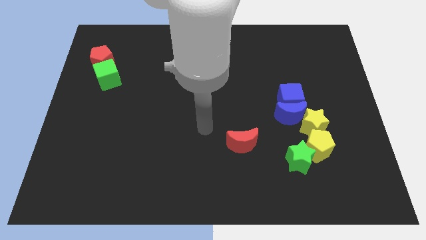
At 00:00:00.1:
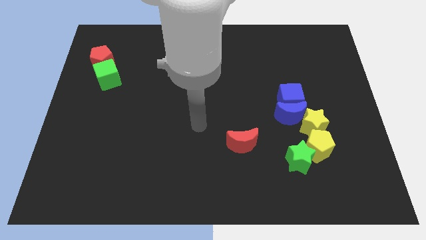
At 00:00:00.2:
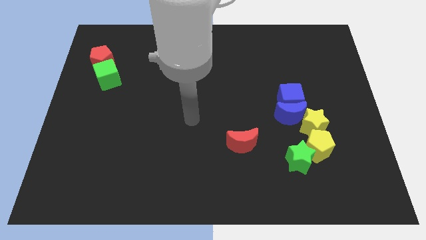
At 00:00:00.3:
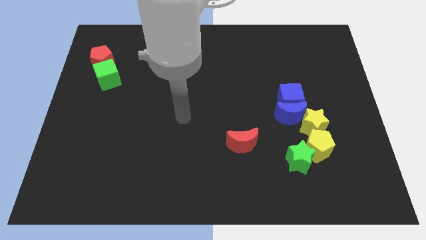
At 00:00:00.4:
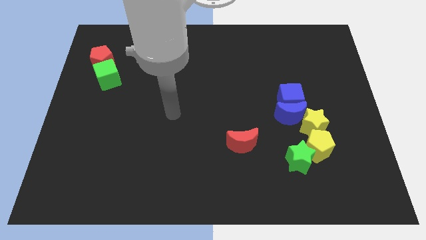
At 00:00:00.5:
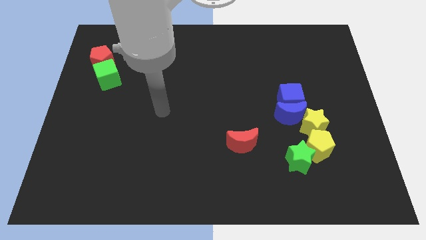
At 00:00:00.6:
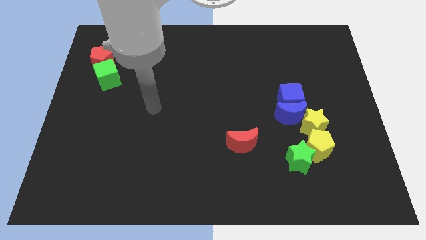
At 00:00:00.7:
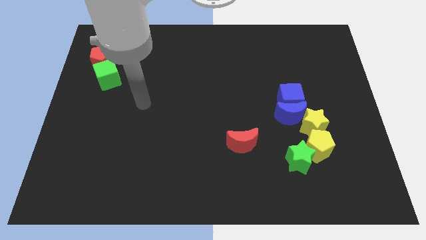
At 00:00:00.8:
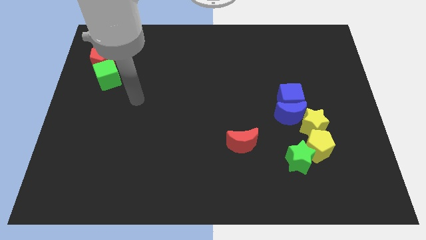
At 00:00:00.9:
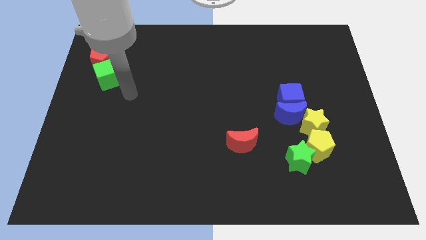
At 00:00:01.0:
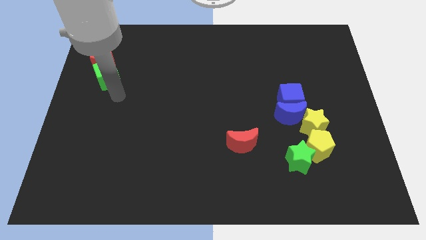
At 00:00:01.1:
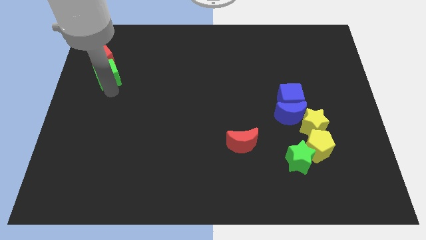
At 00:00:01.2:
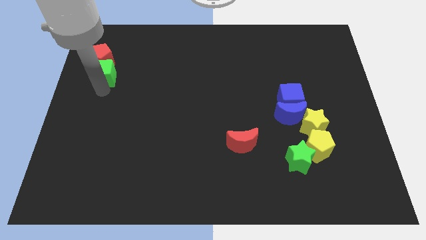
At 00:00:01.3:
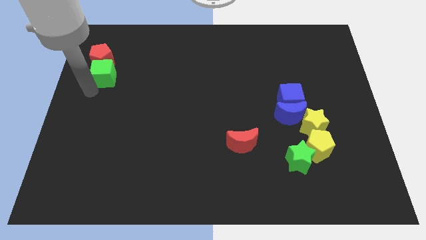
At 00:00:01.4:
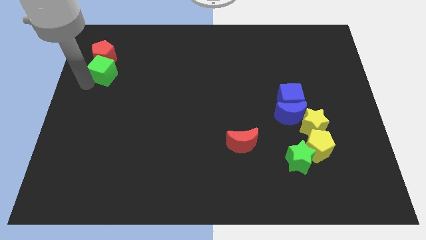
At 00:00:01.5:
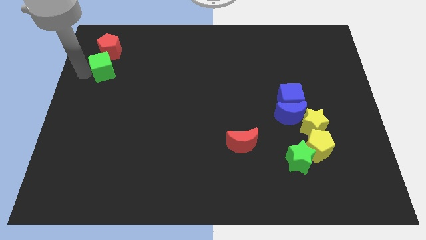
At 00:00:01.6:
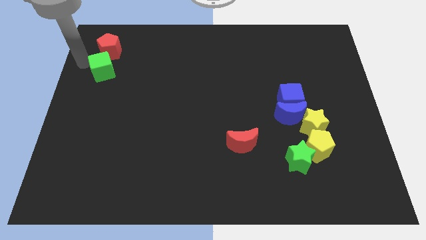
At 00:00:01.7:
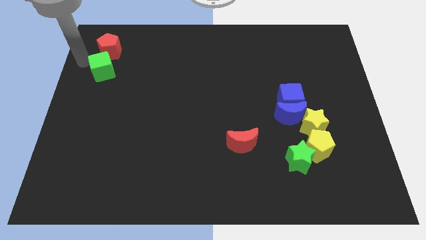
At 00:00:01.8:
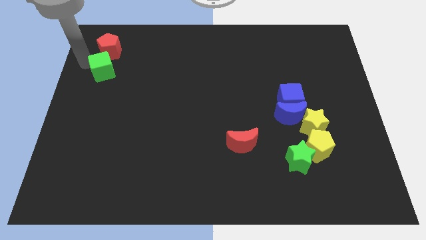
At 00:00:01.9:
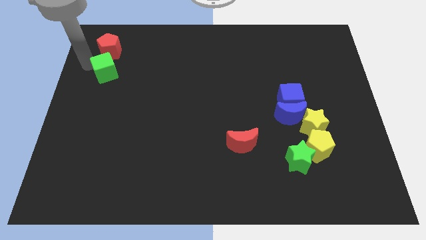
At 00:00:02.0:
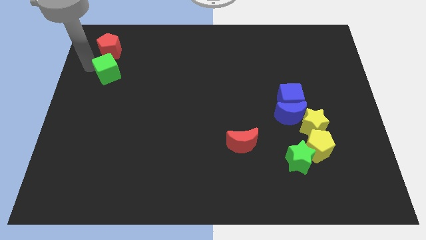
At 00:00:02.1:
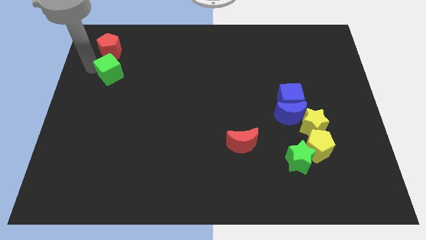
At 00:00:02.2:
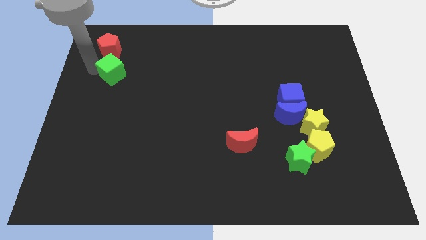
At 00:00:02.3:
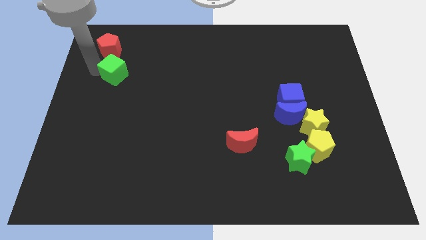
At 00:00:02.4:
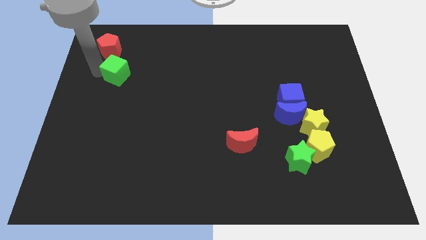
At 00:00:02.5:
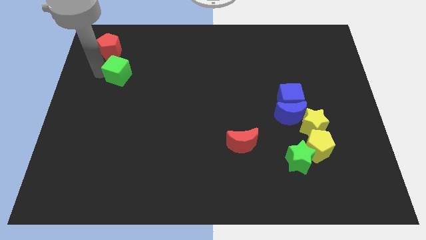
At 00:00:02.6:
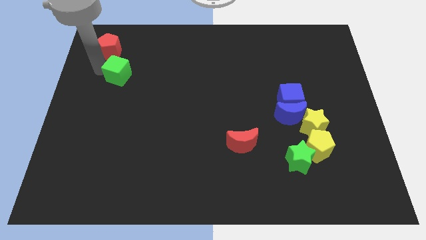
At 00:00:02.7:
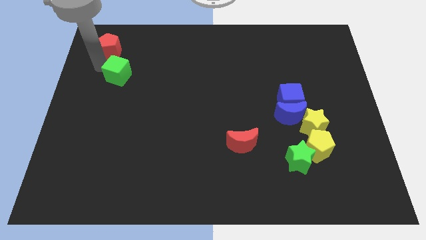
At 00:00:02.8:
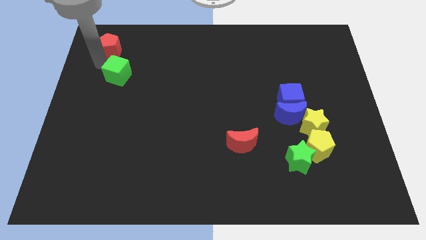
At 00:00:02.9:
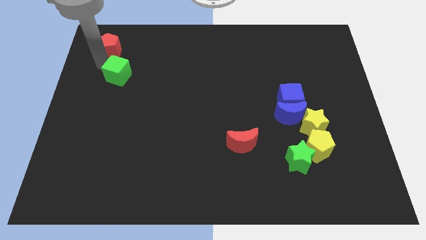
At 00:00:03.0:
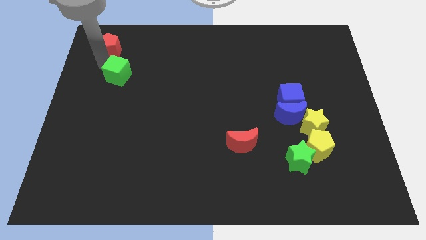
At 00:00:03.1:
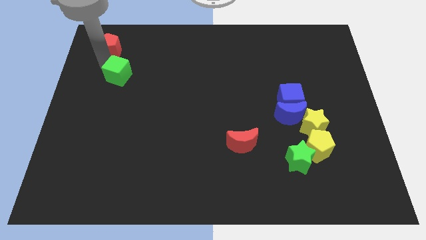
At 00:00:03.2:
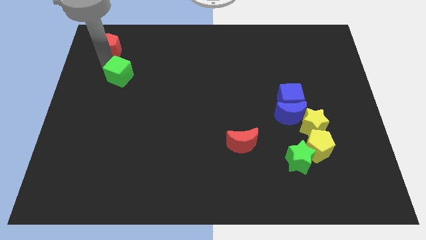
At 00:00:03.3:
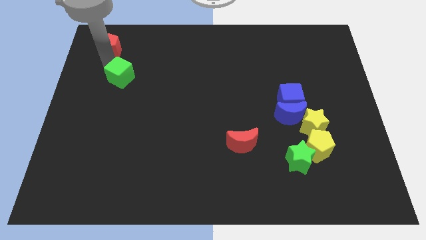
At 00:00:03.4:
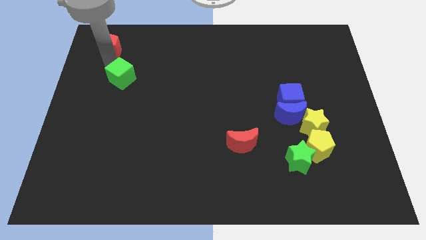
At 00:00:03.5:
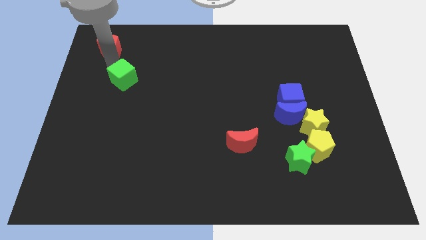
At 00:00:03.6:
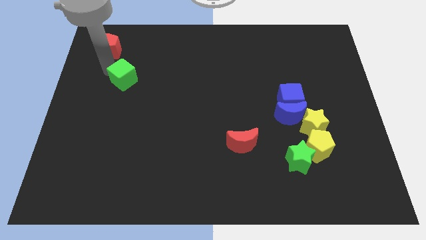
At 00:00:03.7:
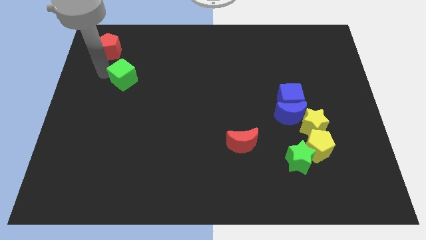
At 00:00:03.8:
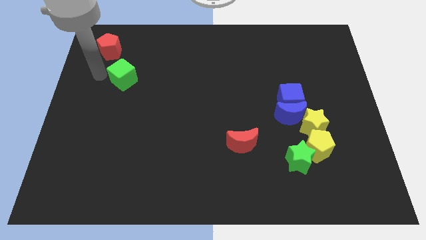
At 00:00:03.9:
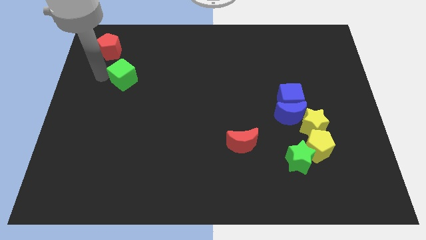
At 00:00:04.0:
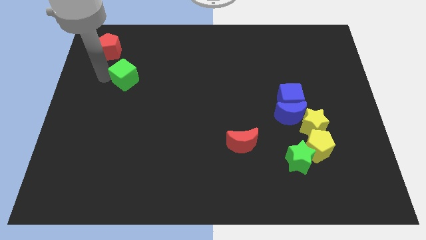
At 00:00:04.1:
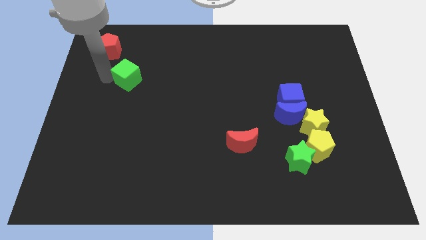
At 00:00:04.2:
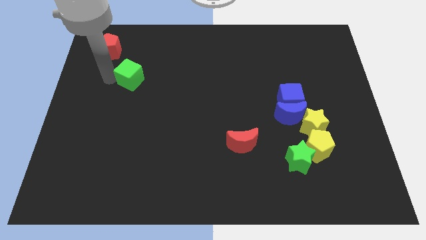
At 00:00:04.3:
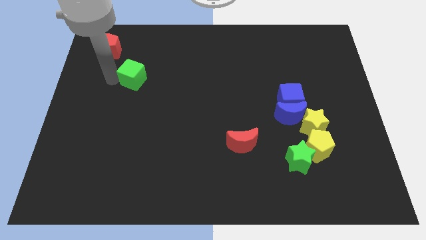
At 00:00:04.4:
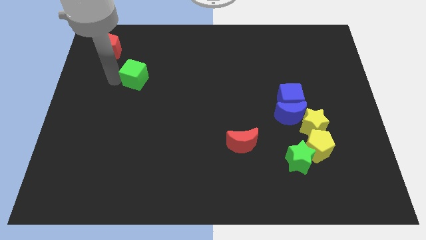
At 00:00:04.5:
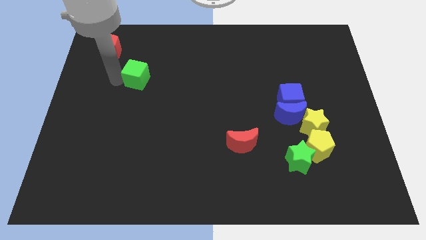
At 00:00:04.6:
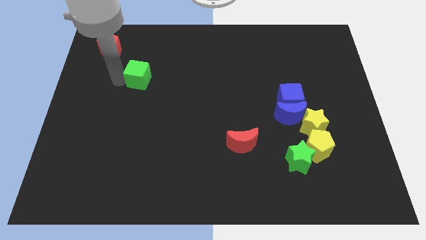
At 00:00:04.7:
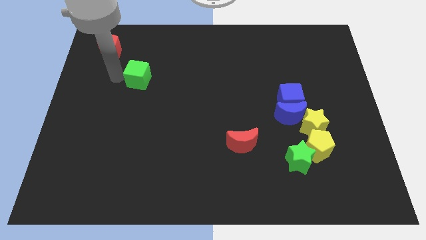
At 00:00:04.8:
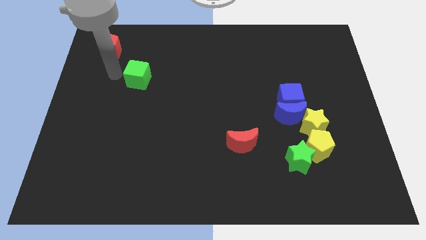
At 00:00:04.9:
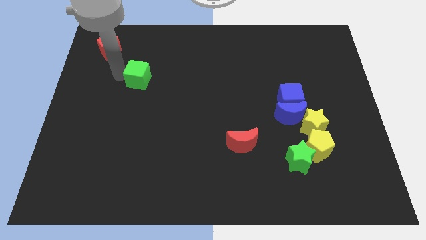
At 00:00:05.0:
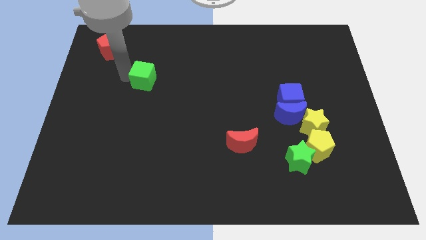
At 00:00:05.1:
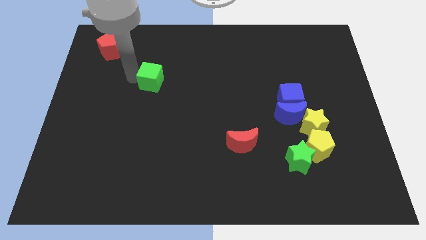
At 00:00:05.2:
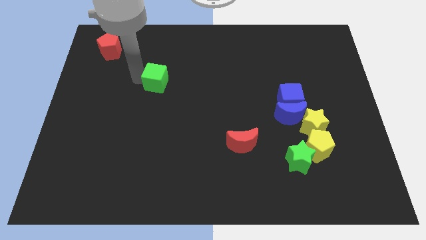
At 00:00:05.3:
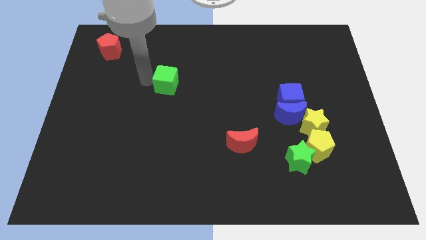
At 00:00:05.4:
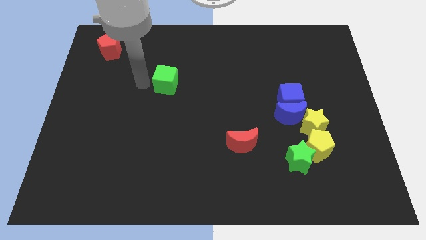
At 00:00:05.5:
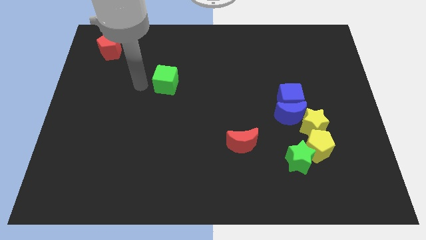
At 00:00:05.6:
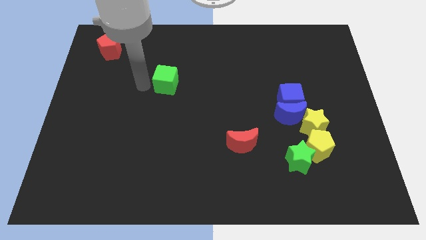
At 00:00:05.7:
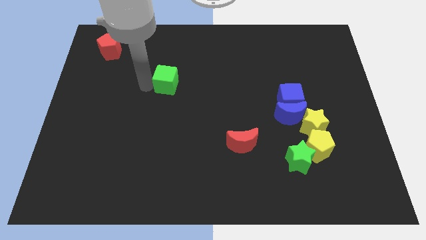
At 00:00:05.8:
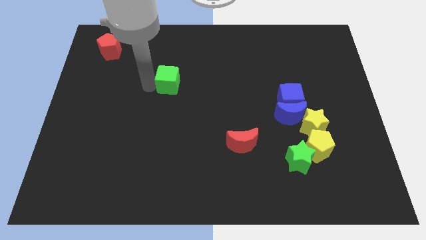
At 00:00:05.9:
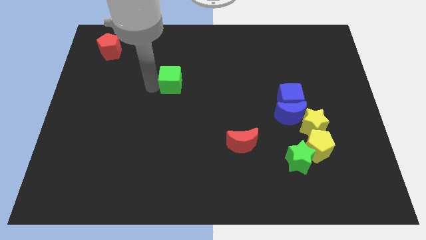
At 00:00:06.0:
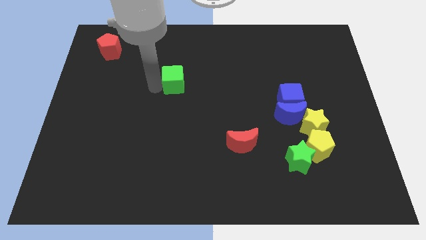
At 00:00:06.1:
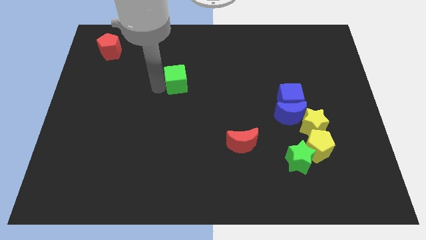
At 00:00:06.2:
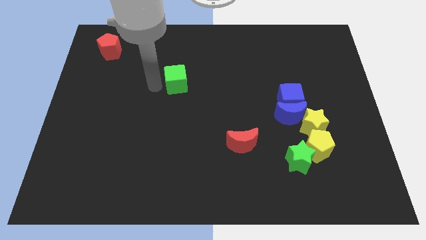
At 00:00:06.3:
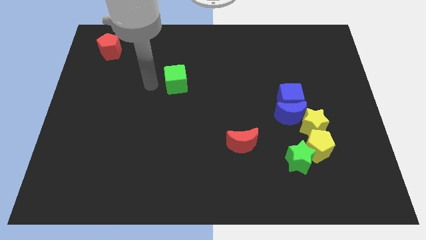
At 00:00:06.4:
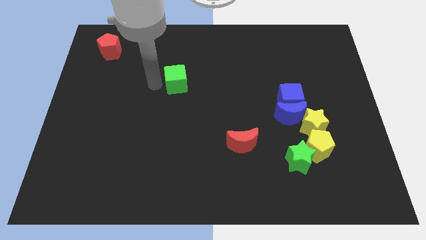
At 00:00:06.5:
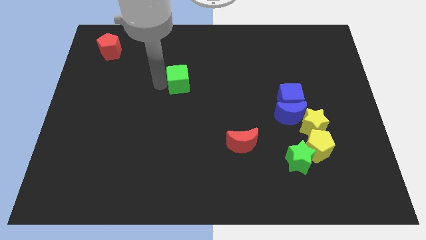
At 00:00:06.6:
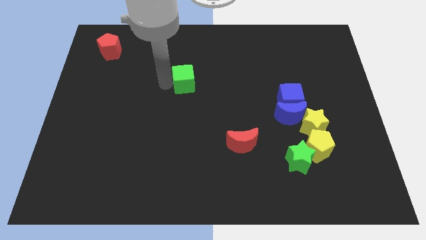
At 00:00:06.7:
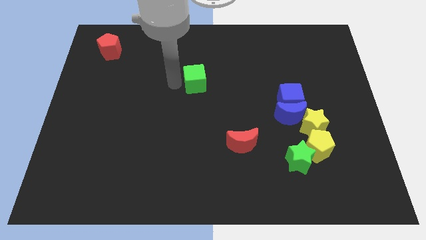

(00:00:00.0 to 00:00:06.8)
push the green cube right

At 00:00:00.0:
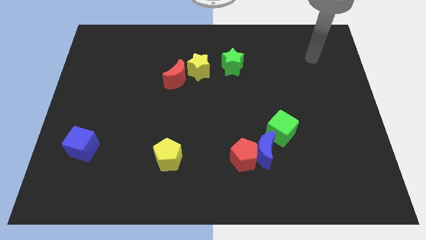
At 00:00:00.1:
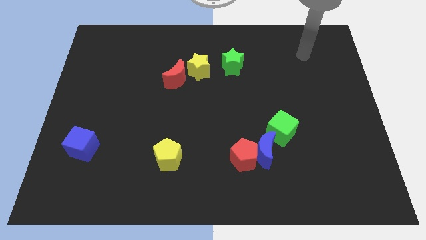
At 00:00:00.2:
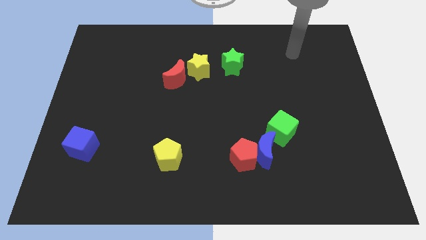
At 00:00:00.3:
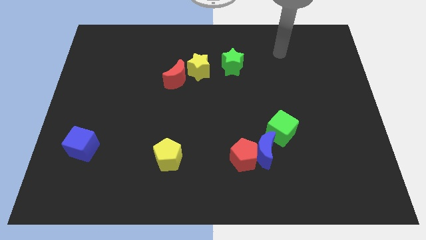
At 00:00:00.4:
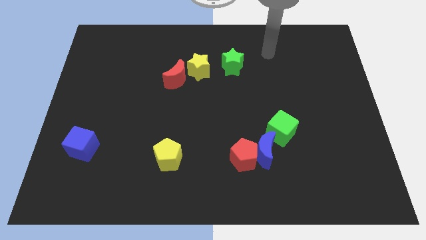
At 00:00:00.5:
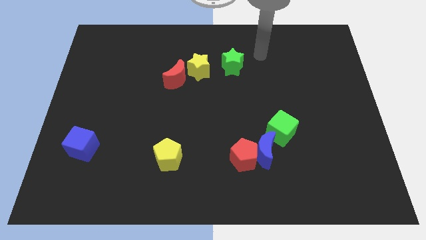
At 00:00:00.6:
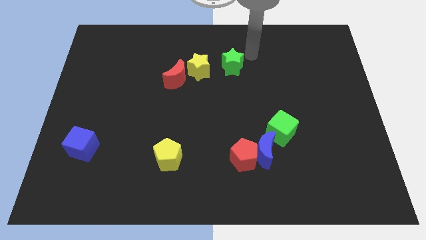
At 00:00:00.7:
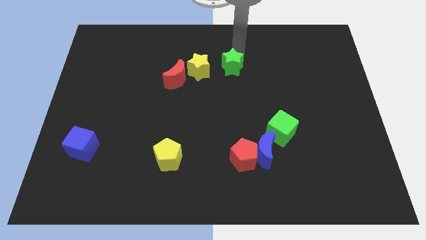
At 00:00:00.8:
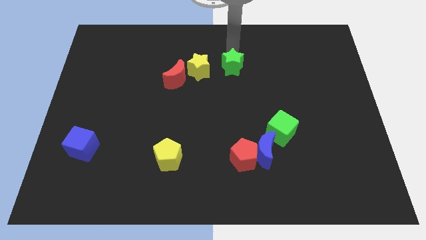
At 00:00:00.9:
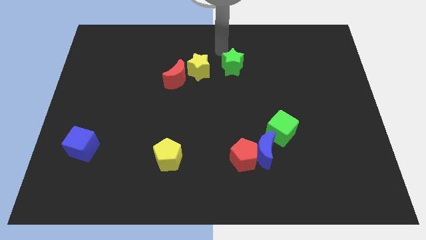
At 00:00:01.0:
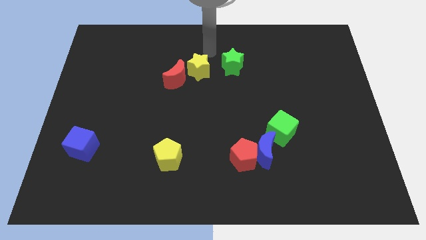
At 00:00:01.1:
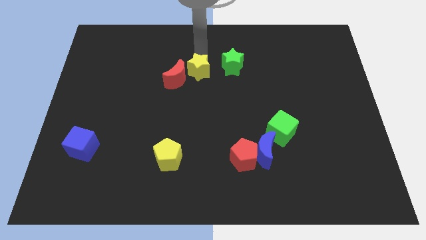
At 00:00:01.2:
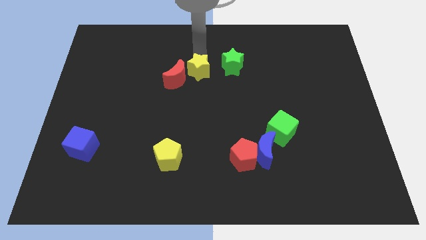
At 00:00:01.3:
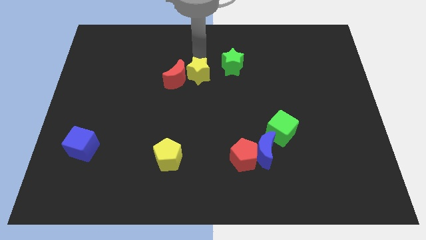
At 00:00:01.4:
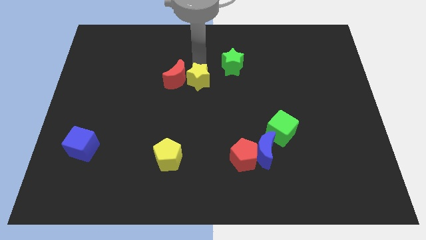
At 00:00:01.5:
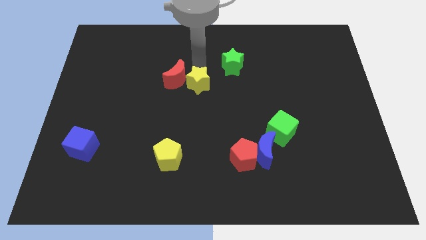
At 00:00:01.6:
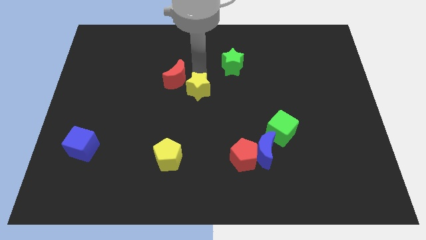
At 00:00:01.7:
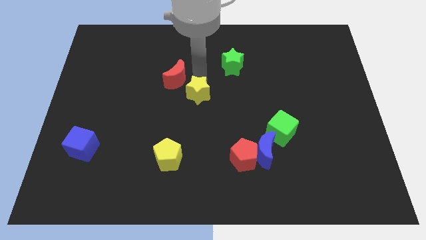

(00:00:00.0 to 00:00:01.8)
slide the yellow star a little bit down
